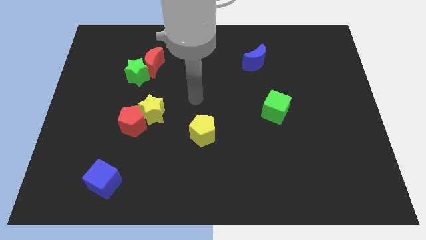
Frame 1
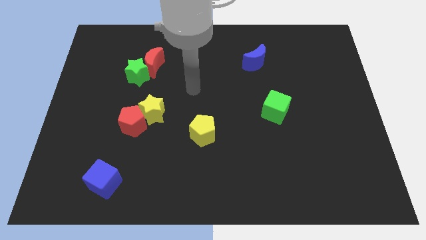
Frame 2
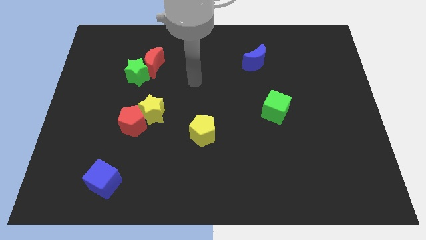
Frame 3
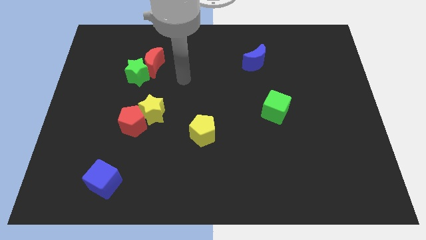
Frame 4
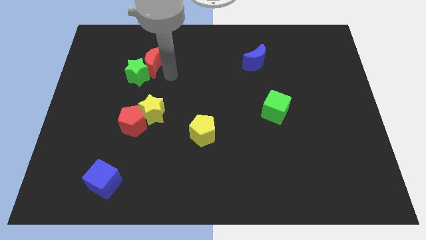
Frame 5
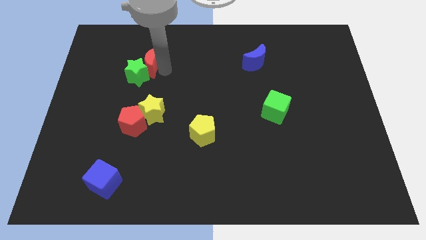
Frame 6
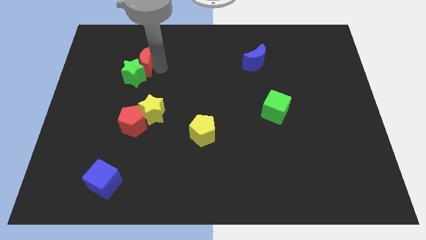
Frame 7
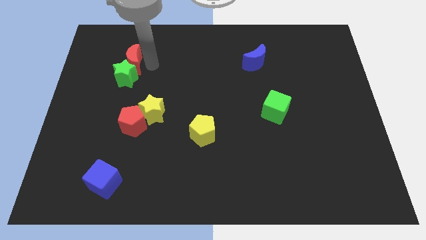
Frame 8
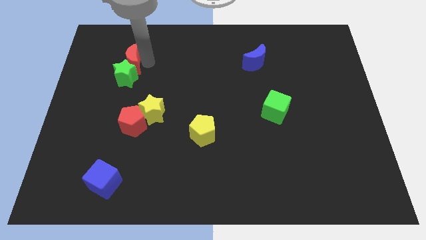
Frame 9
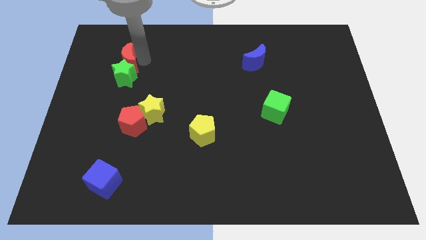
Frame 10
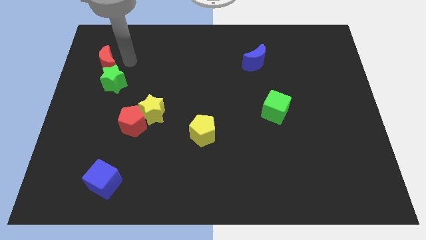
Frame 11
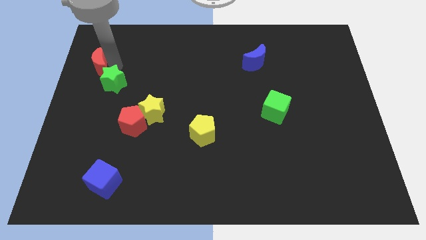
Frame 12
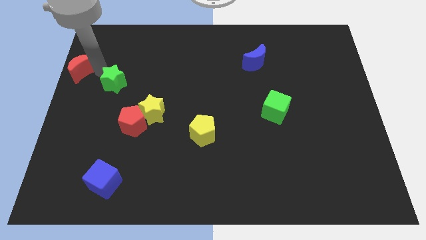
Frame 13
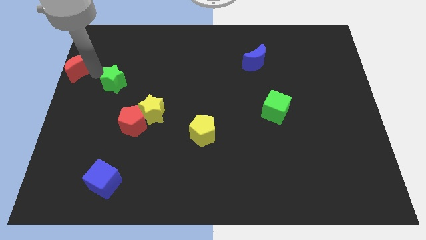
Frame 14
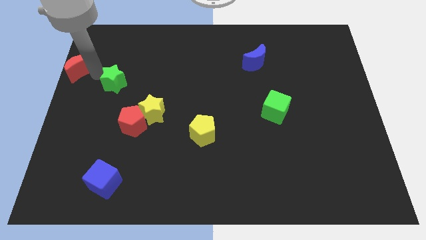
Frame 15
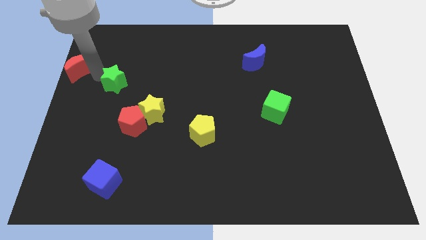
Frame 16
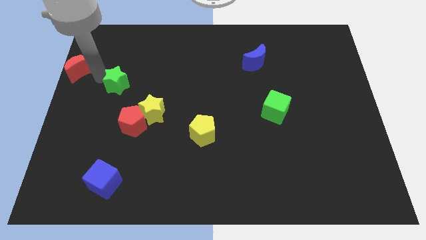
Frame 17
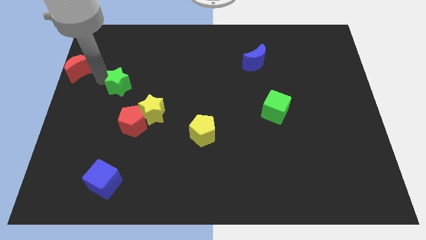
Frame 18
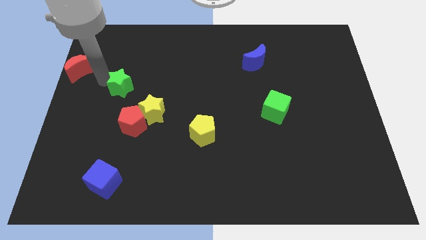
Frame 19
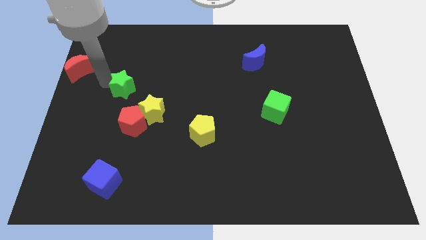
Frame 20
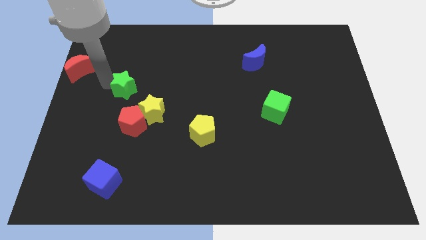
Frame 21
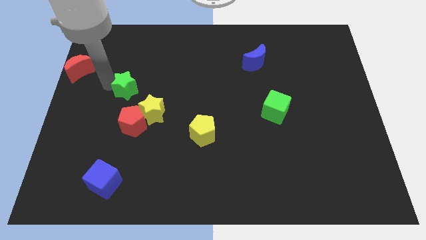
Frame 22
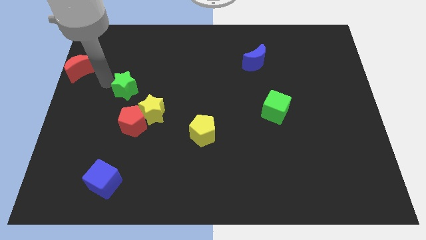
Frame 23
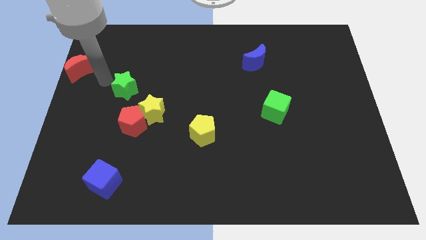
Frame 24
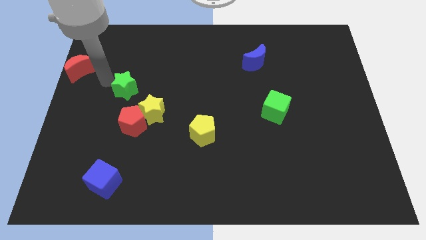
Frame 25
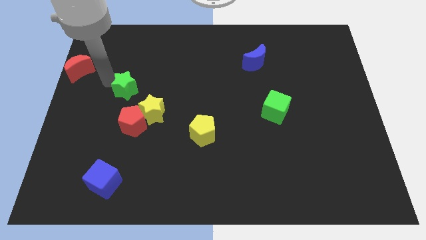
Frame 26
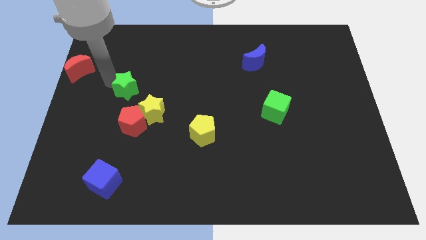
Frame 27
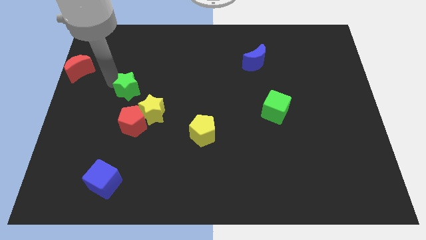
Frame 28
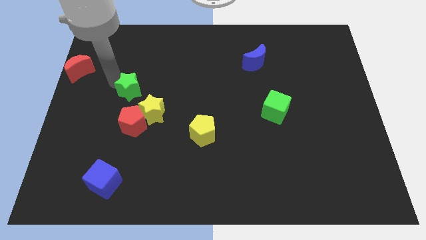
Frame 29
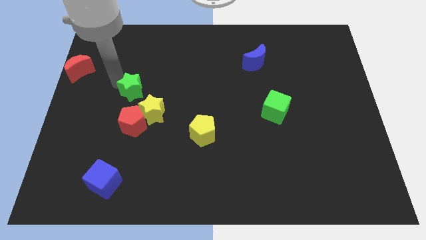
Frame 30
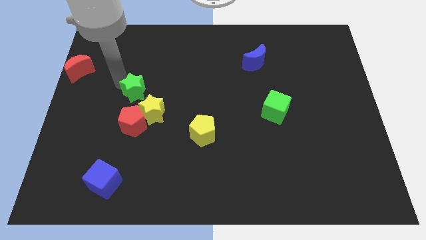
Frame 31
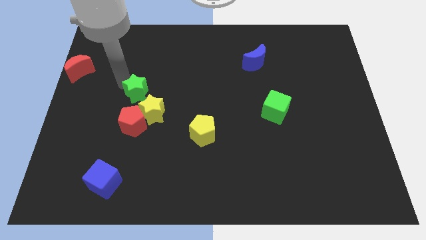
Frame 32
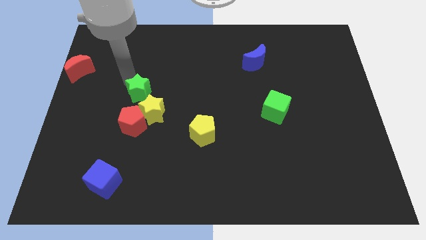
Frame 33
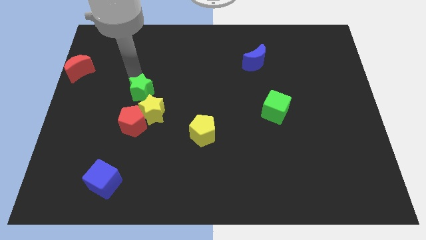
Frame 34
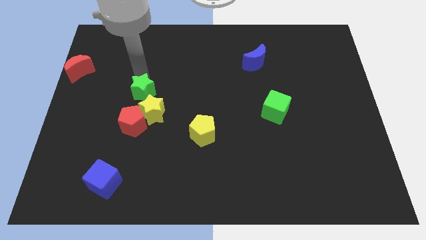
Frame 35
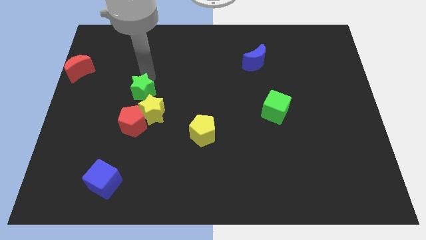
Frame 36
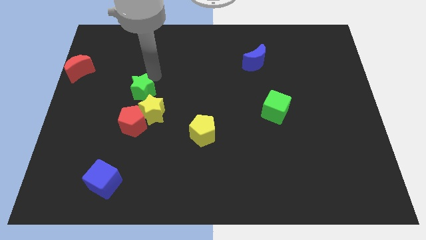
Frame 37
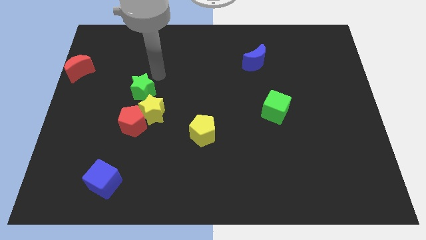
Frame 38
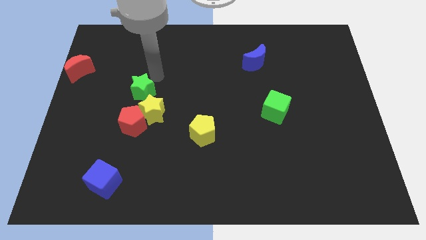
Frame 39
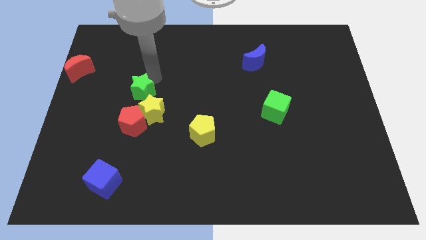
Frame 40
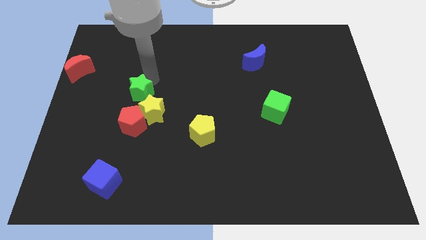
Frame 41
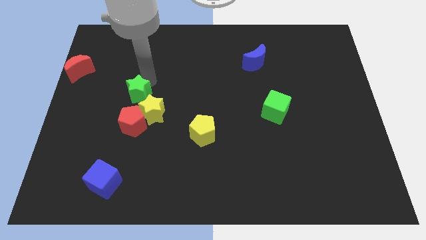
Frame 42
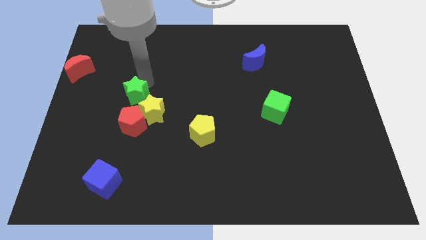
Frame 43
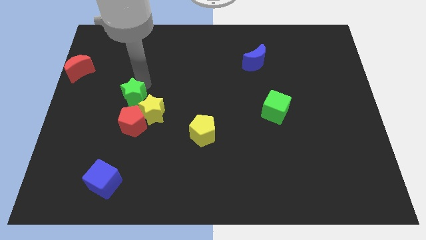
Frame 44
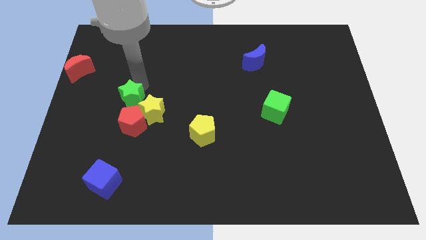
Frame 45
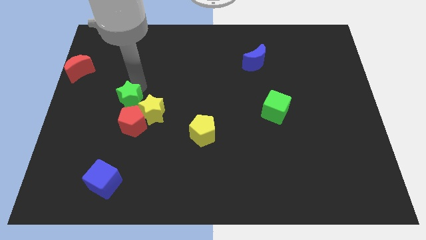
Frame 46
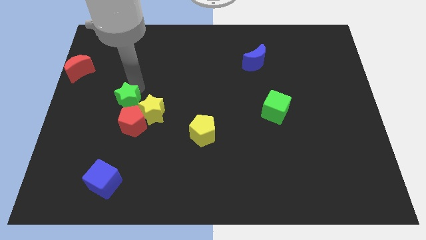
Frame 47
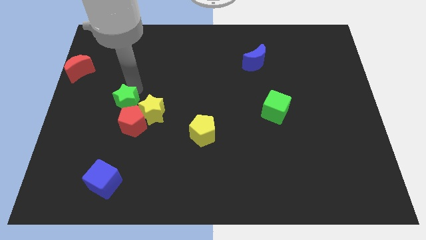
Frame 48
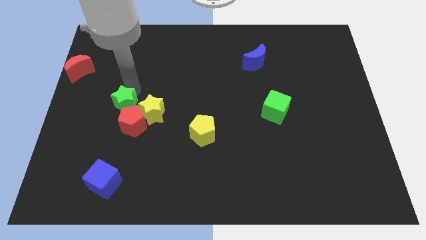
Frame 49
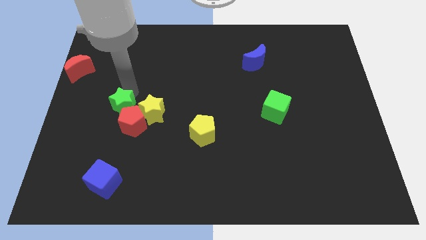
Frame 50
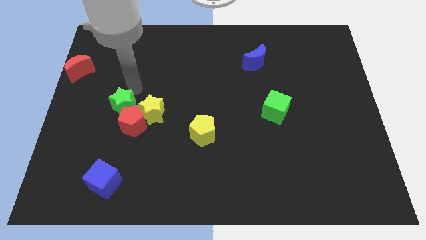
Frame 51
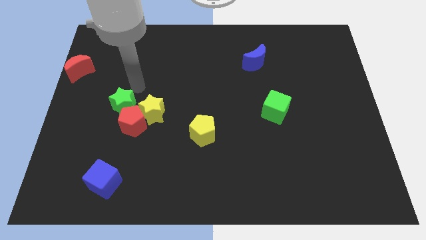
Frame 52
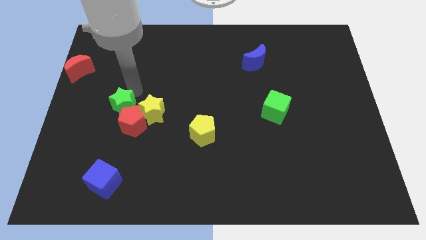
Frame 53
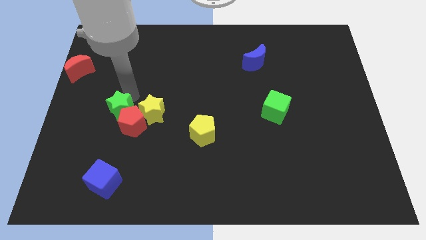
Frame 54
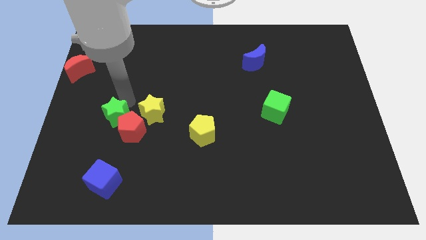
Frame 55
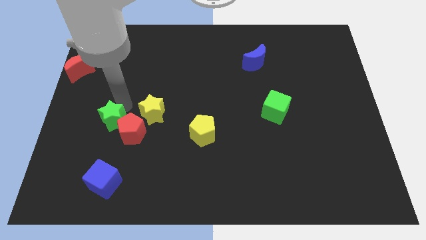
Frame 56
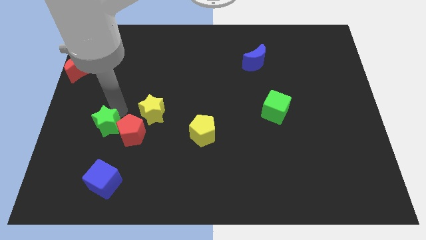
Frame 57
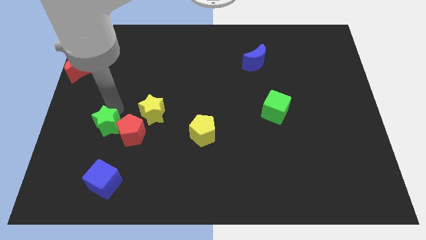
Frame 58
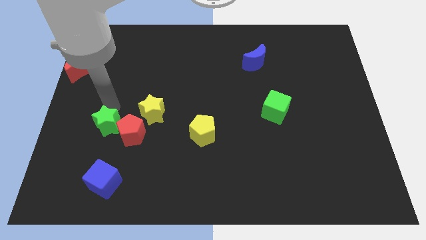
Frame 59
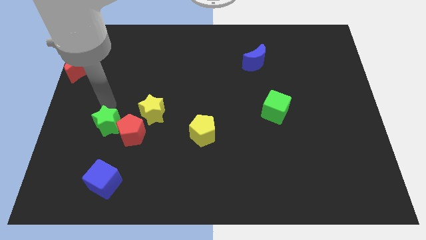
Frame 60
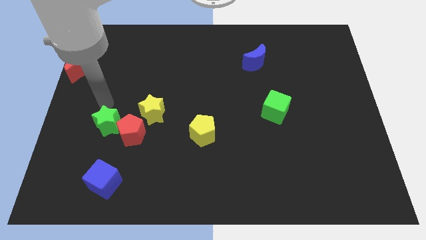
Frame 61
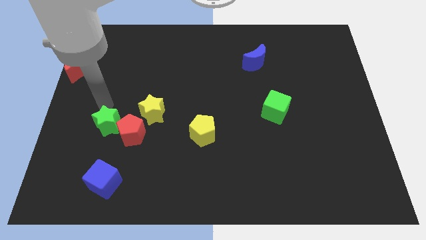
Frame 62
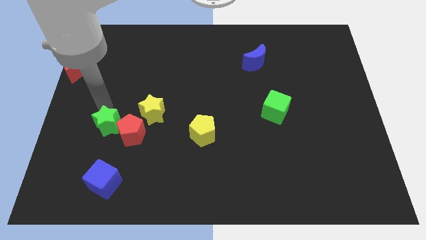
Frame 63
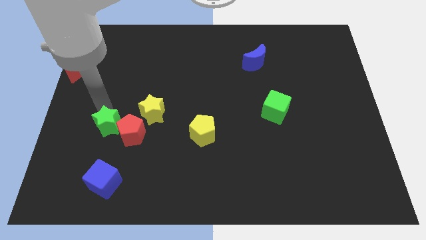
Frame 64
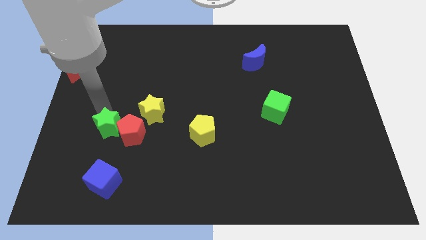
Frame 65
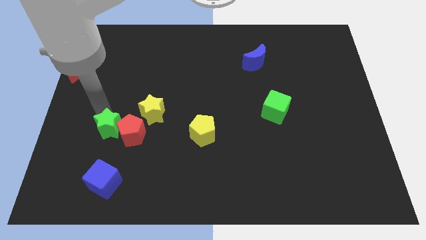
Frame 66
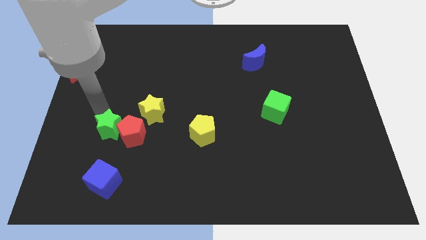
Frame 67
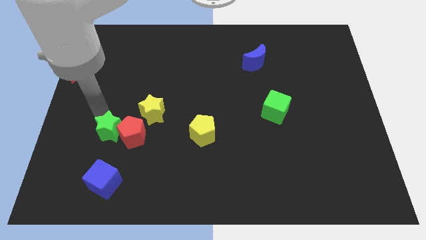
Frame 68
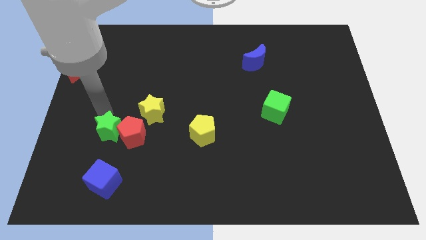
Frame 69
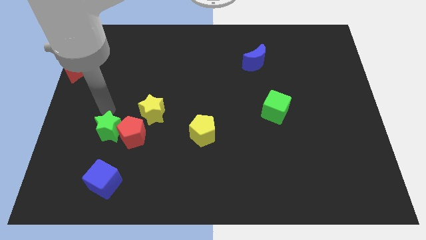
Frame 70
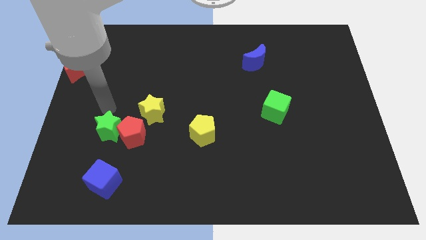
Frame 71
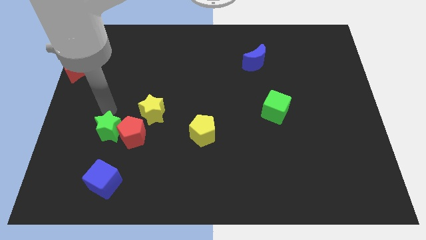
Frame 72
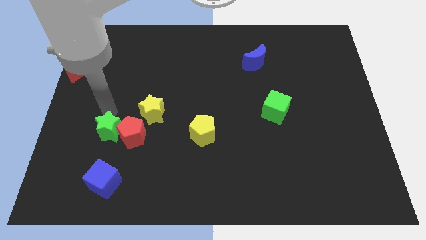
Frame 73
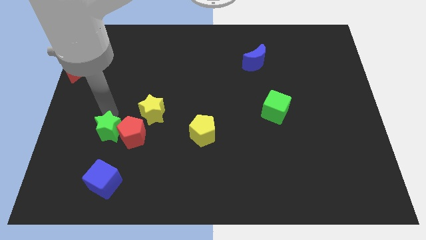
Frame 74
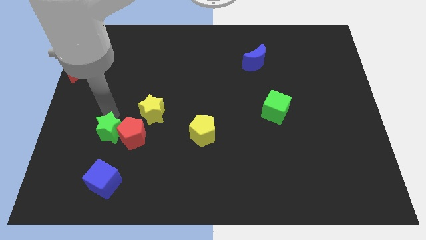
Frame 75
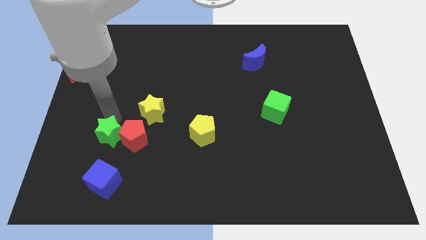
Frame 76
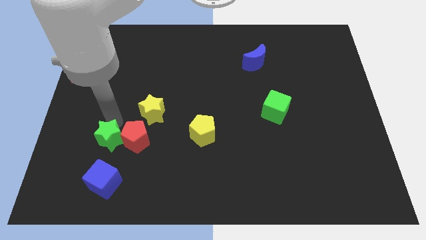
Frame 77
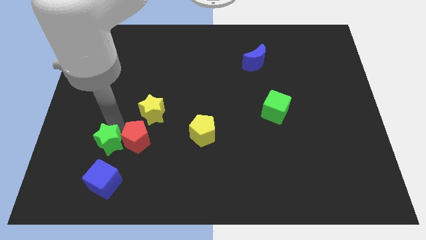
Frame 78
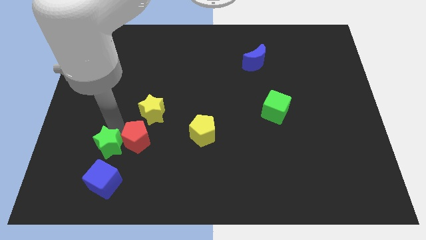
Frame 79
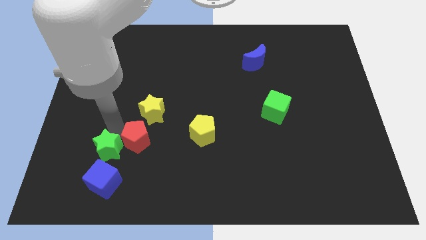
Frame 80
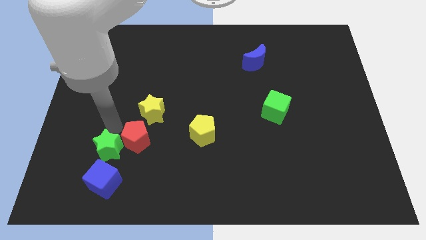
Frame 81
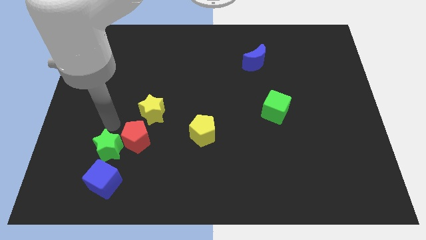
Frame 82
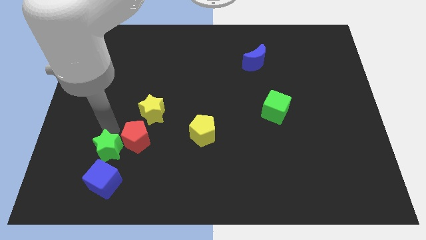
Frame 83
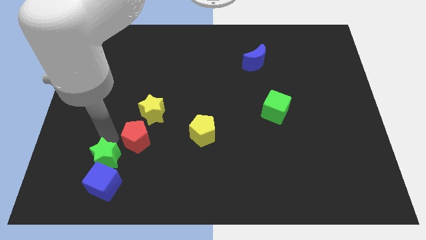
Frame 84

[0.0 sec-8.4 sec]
push the green star next to the blue cube
